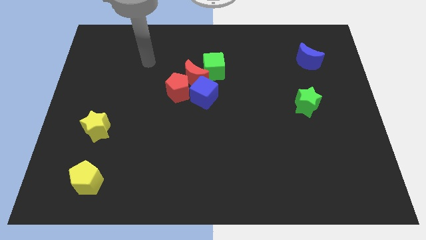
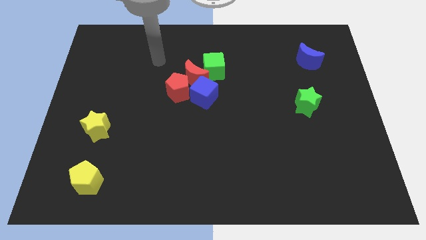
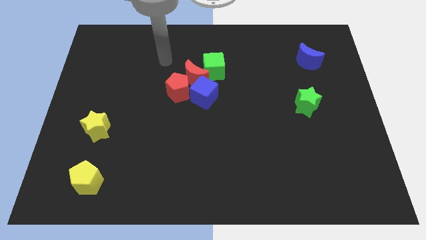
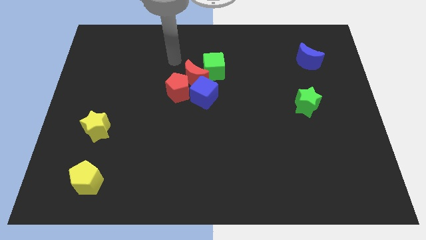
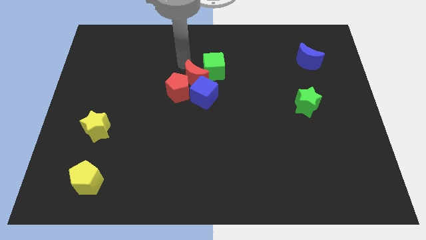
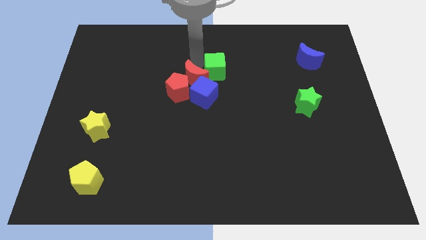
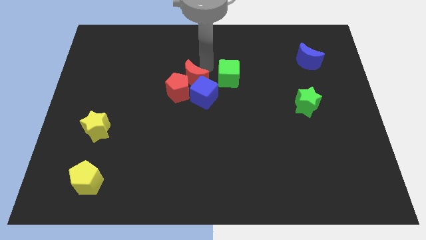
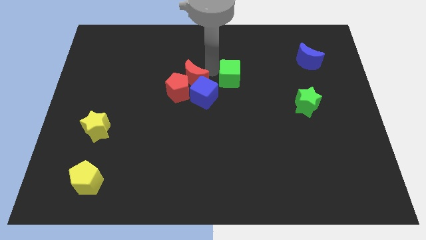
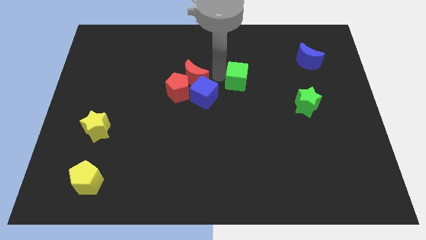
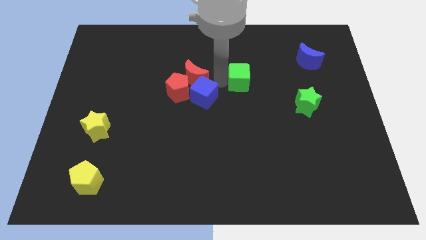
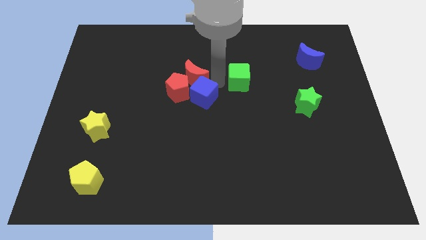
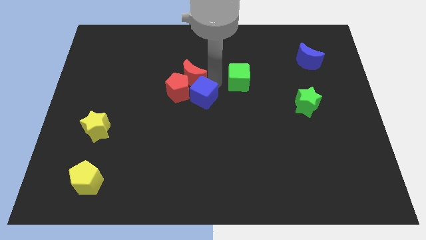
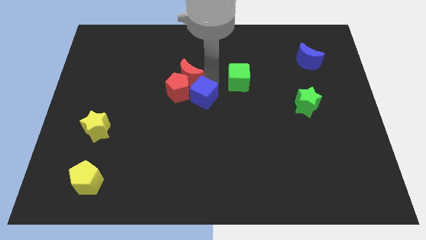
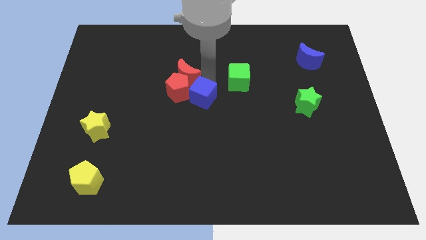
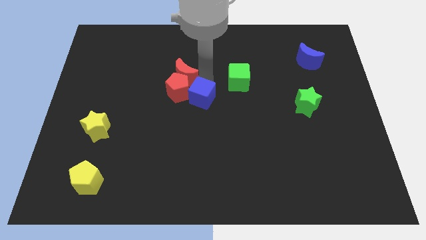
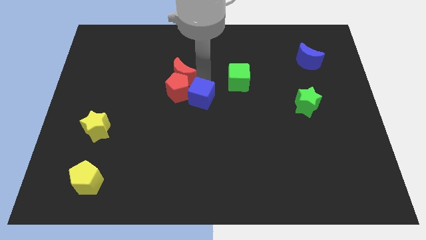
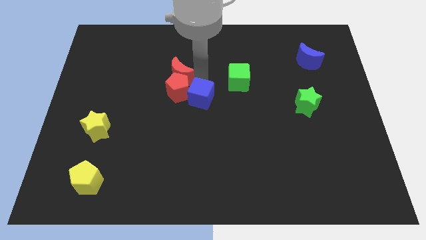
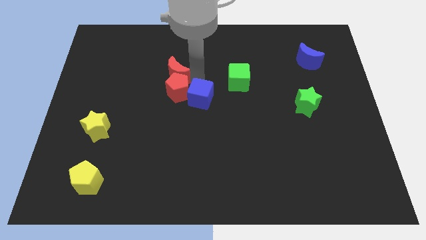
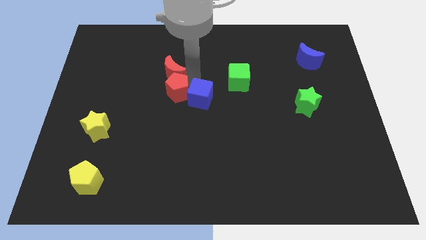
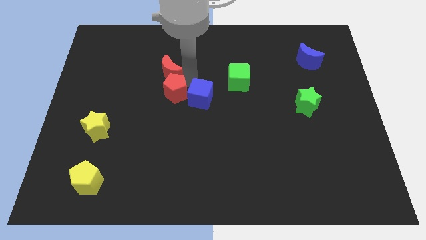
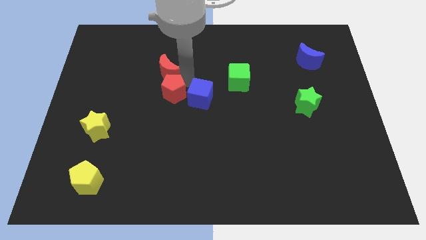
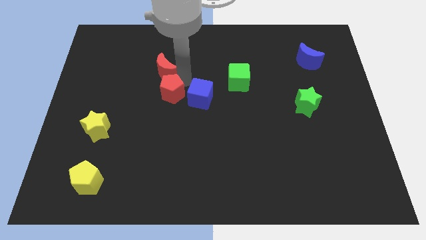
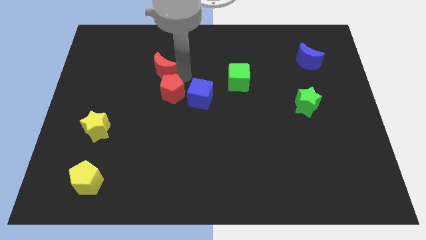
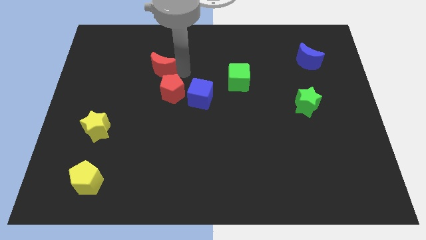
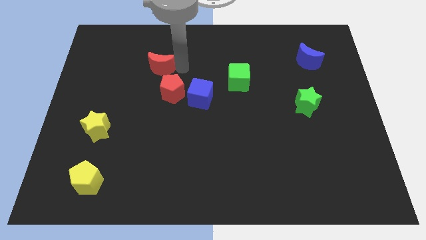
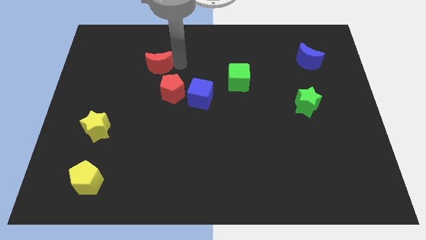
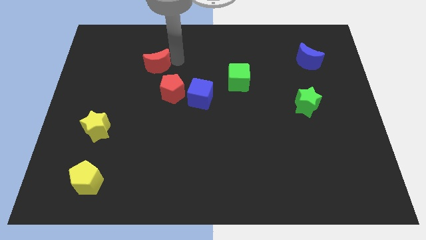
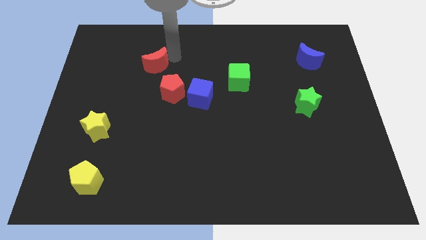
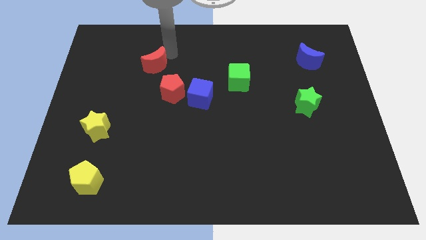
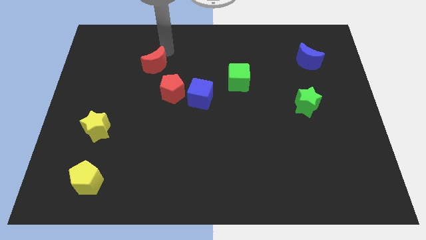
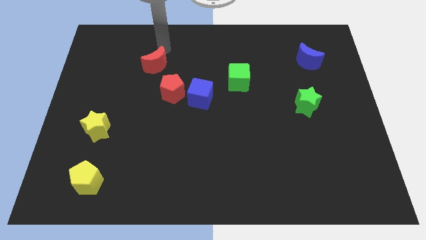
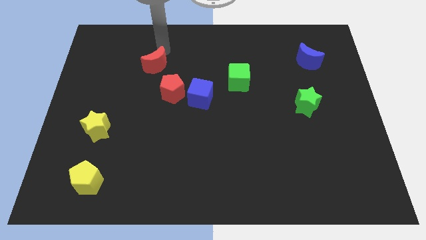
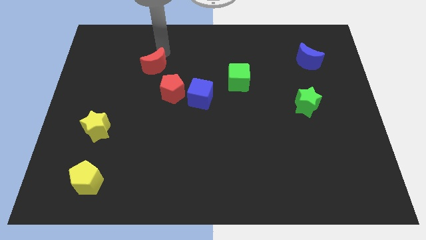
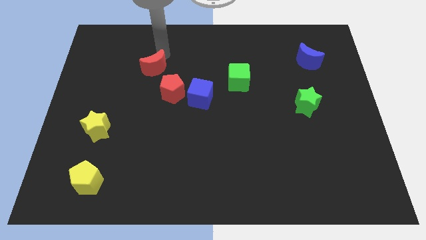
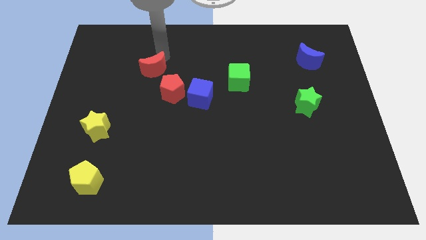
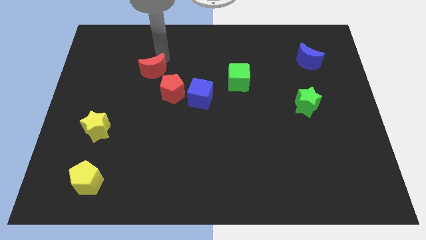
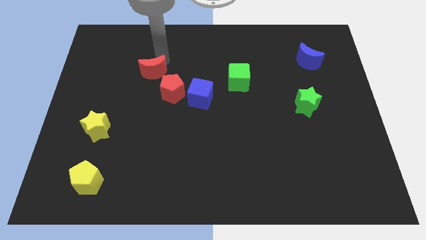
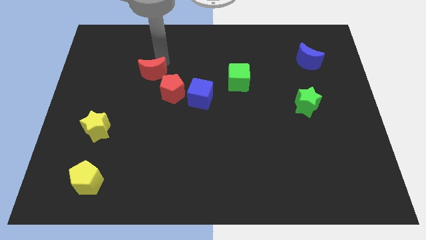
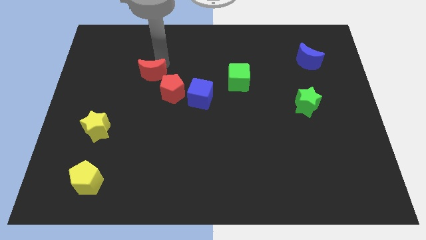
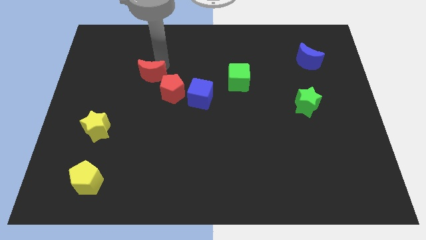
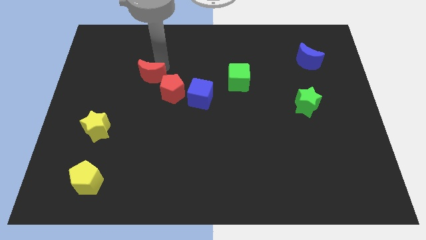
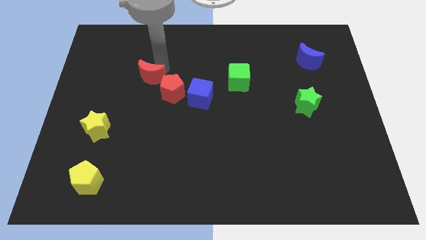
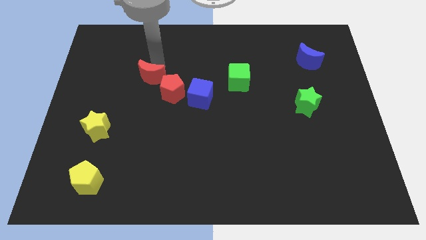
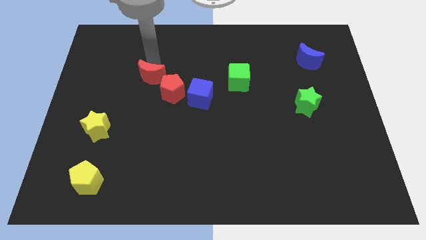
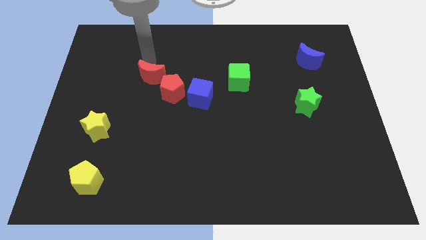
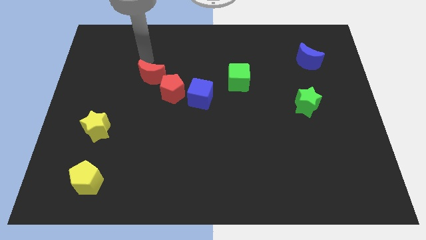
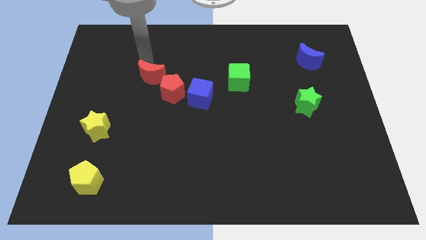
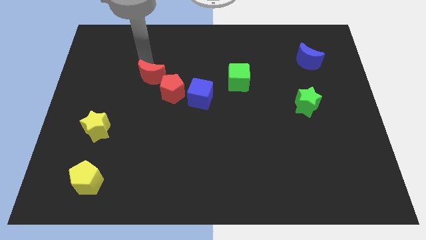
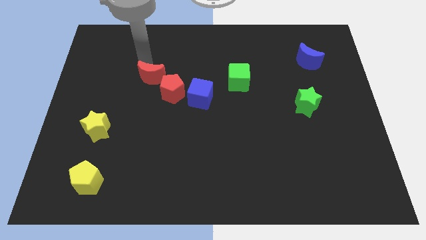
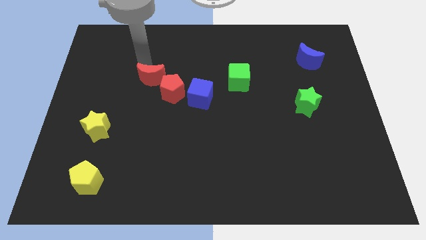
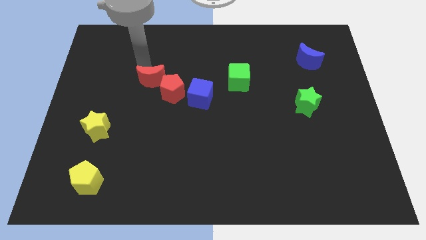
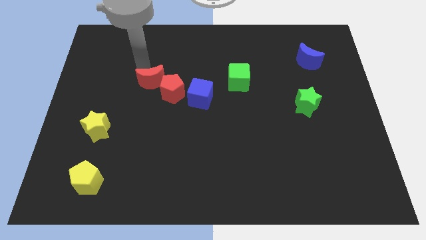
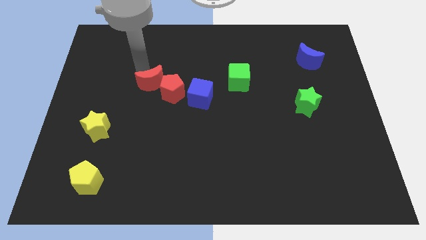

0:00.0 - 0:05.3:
move the red moon left of the blue cube

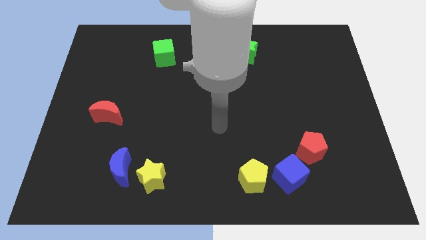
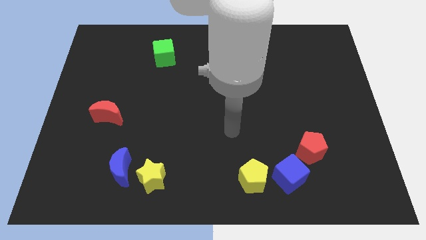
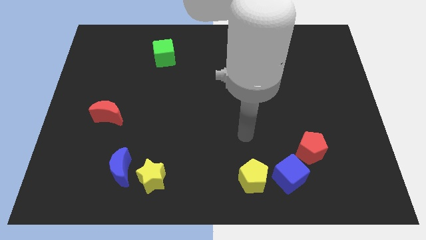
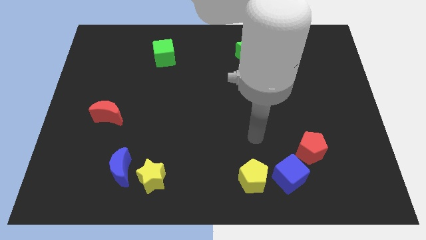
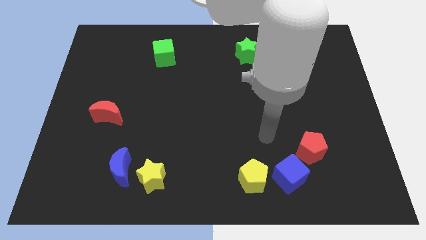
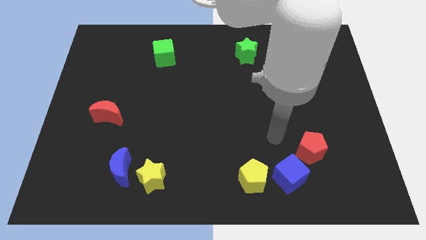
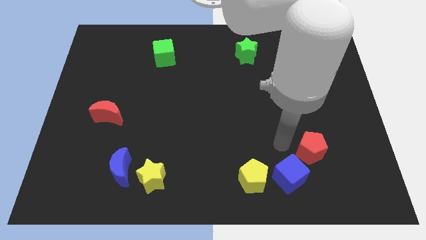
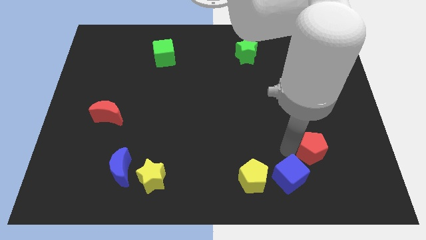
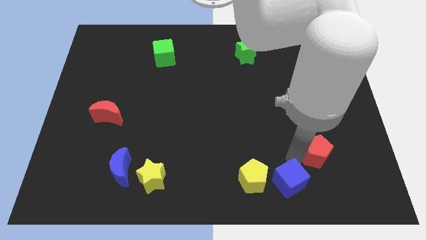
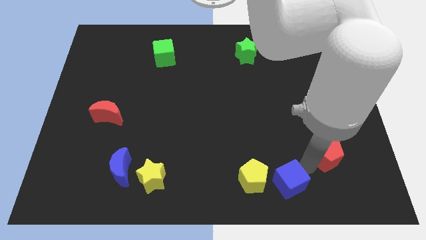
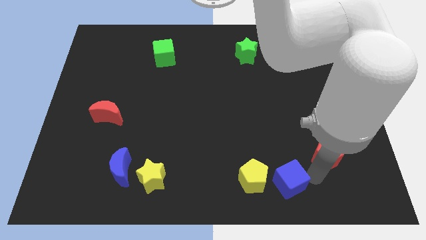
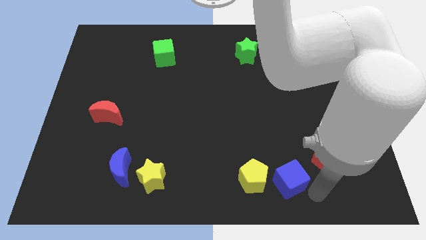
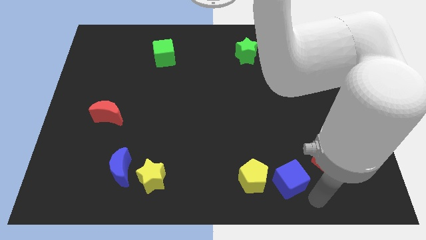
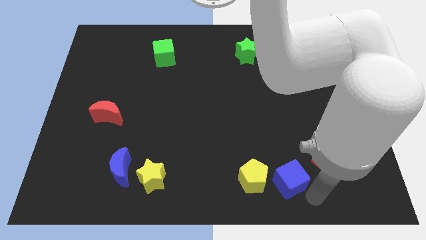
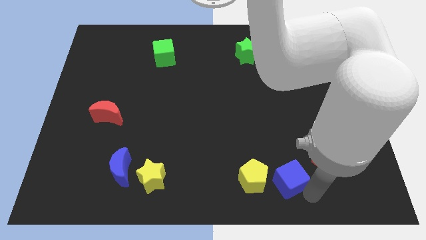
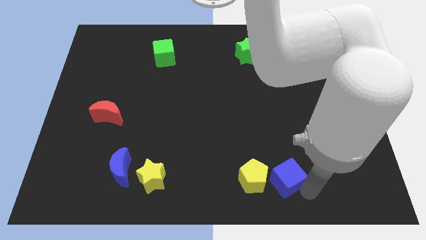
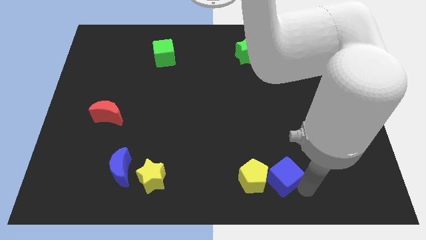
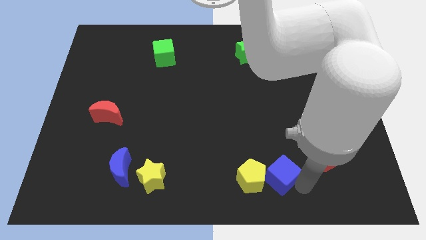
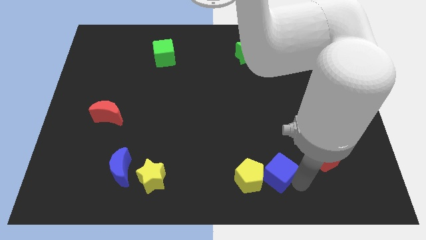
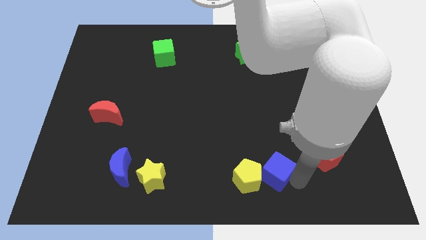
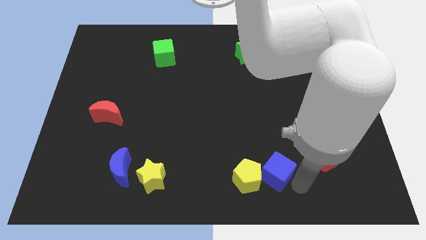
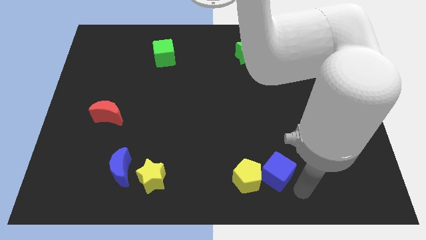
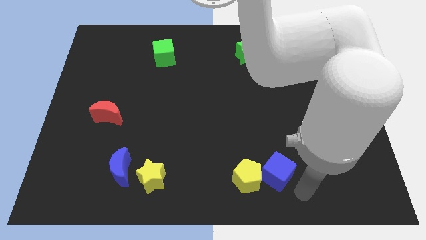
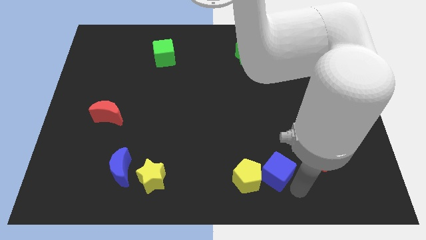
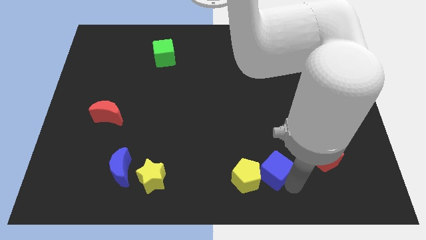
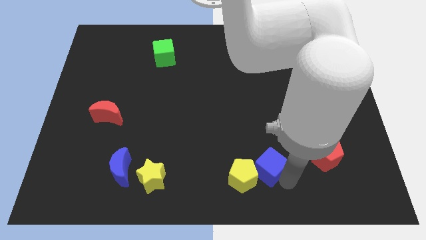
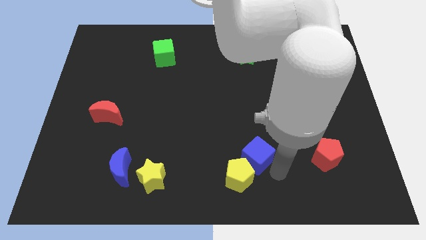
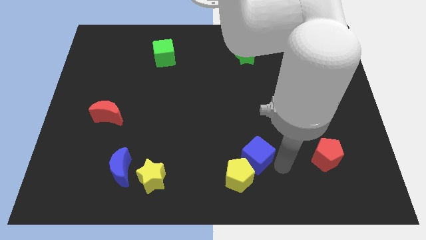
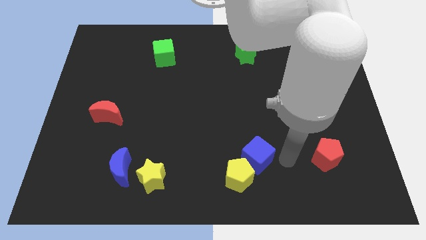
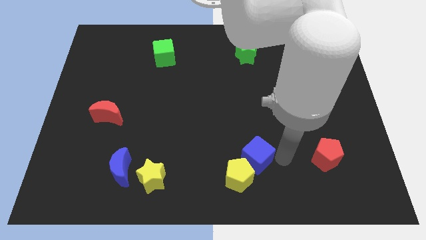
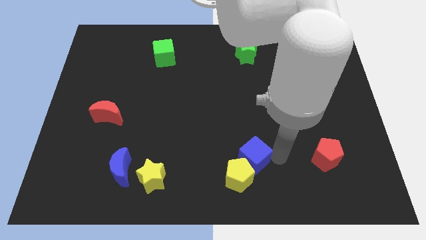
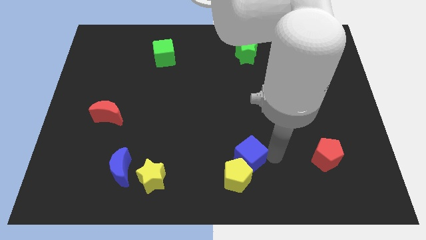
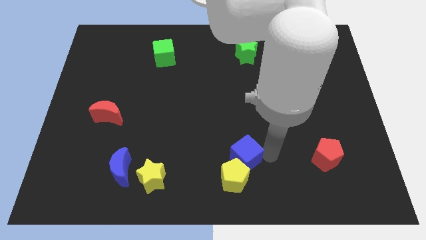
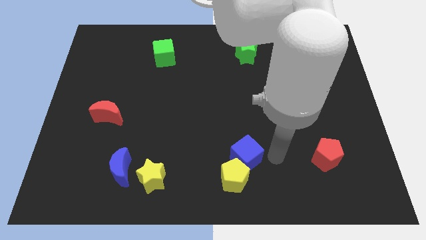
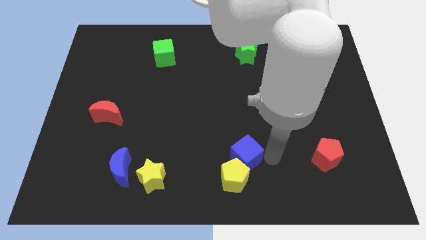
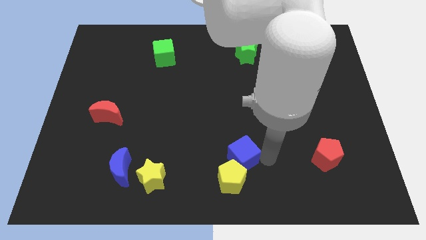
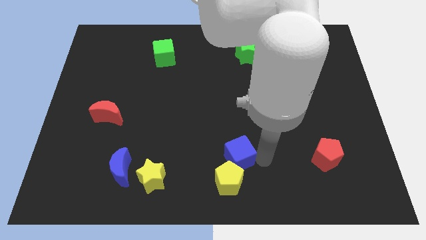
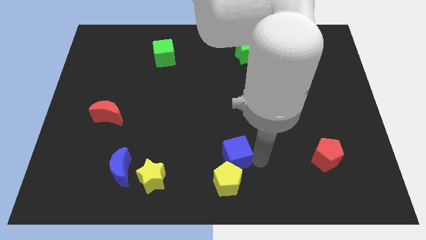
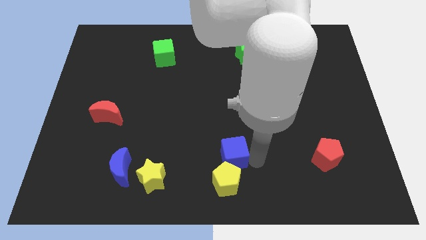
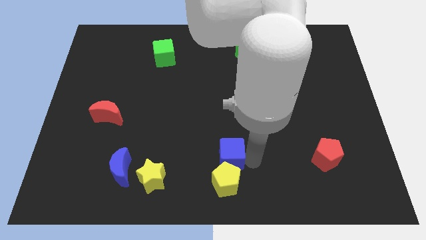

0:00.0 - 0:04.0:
slide the blue cube diagonally up and to the left of the yellow pentagon
